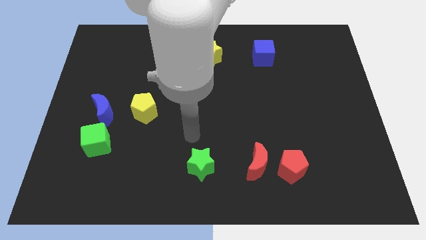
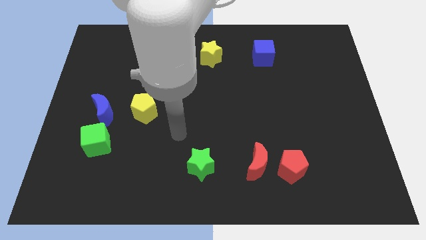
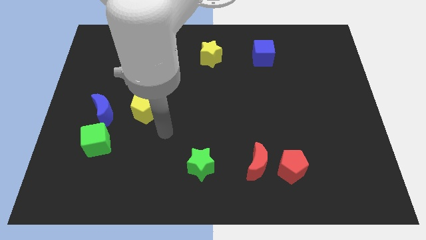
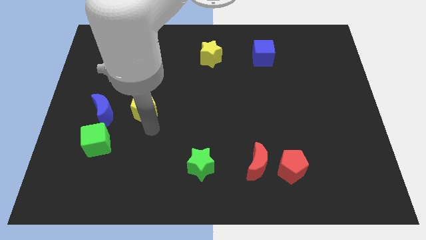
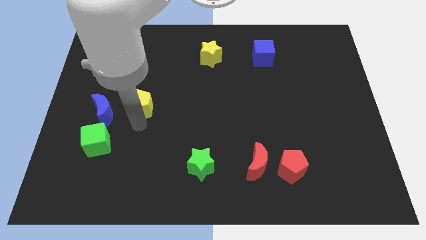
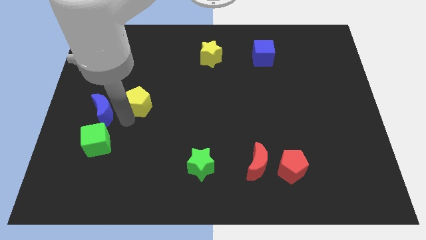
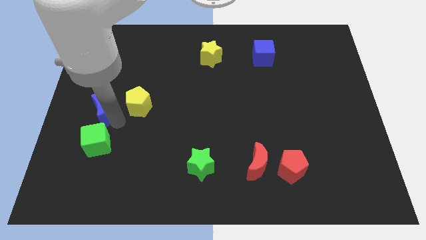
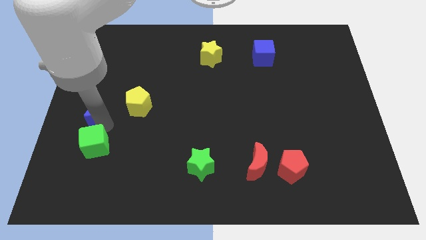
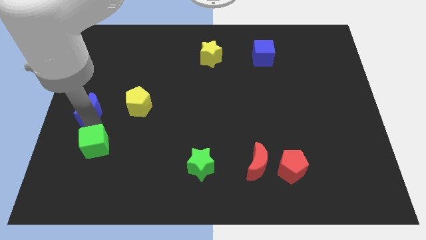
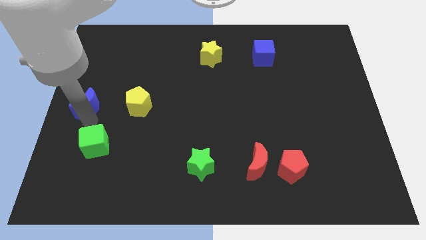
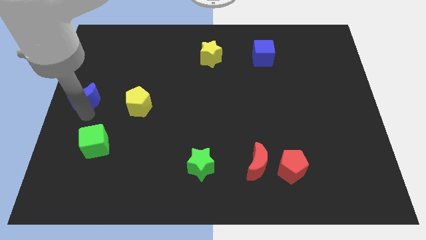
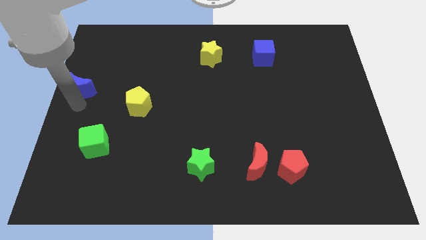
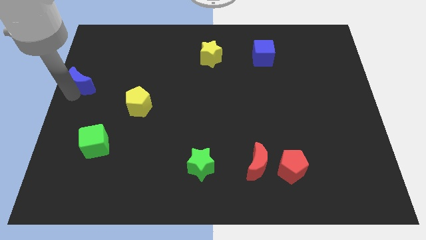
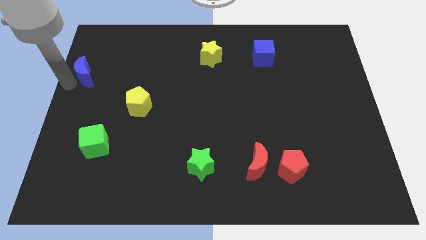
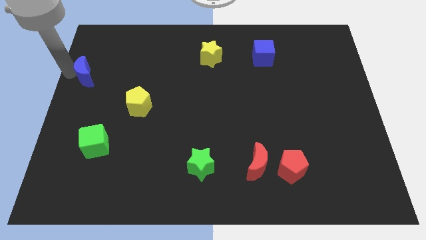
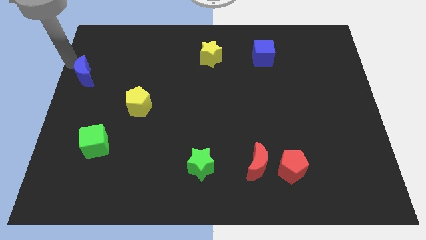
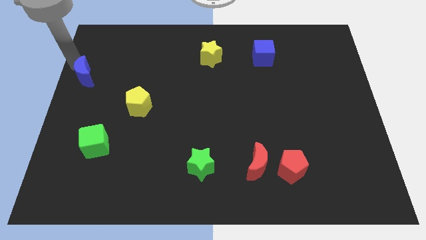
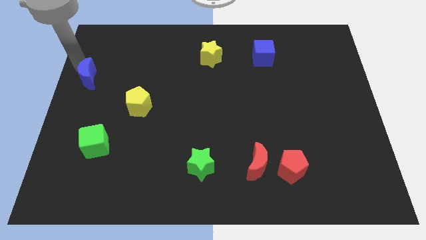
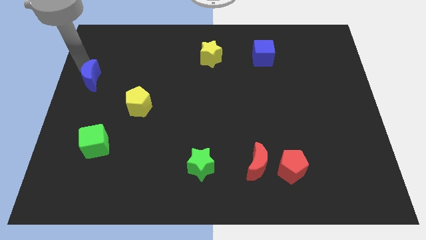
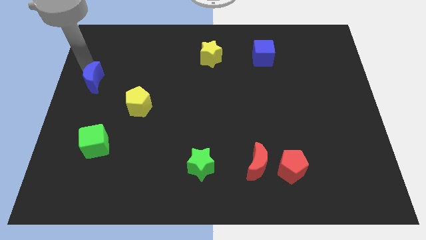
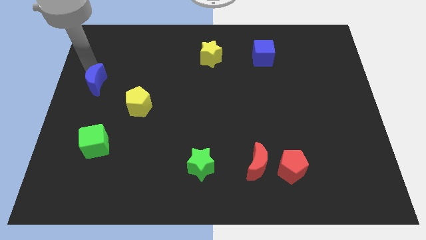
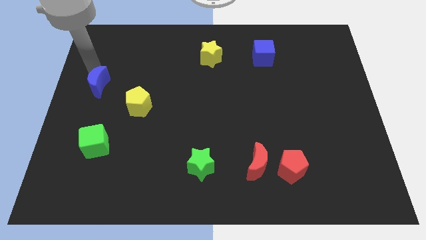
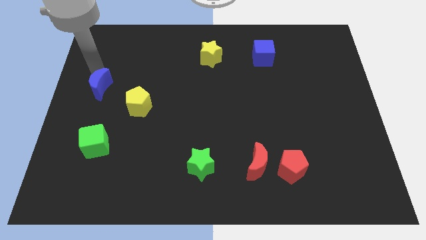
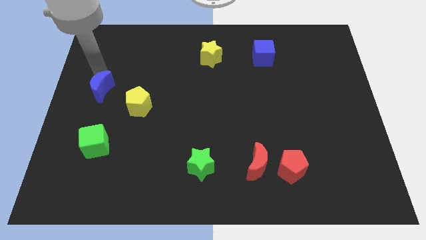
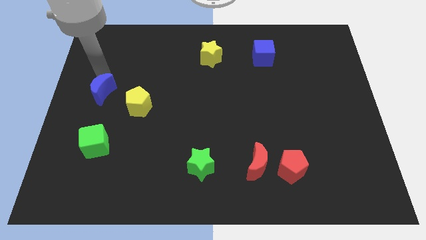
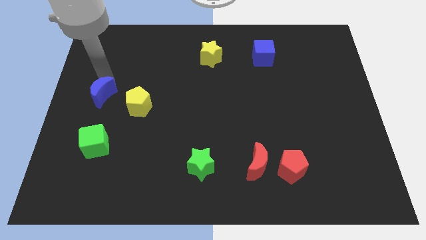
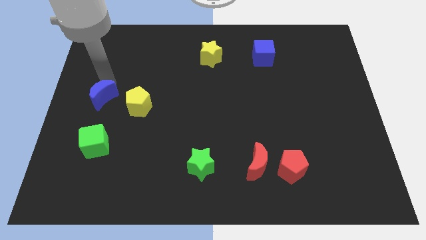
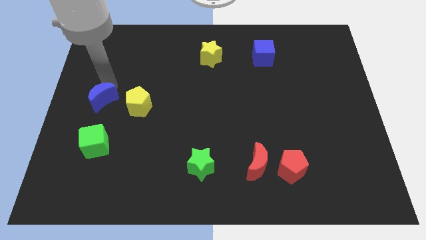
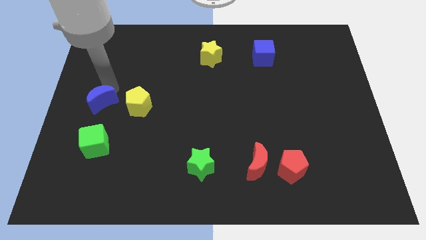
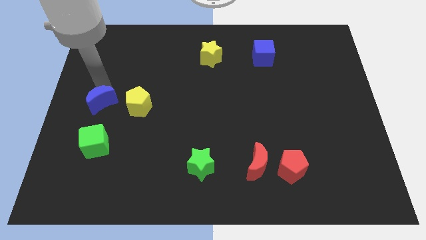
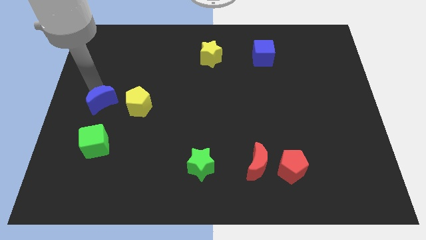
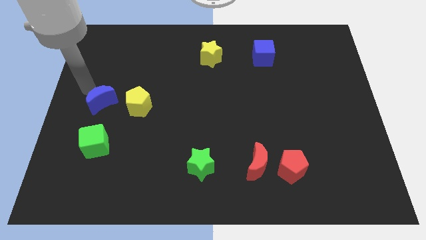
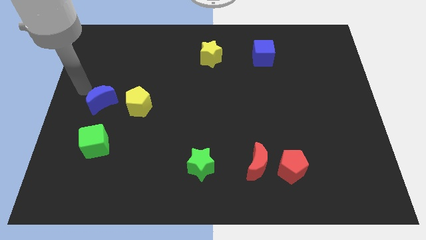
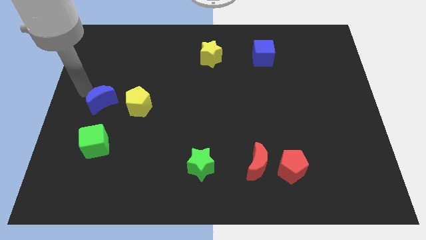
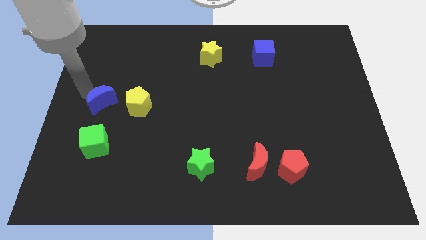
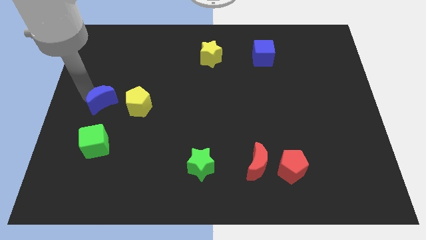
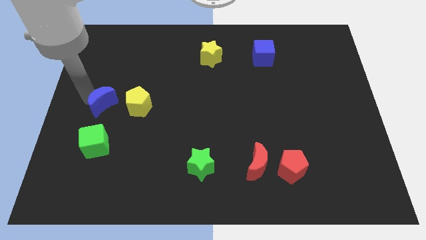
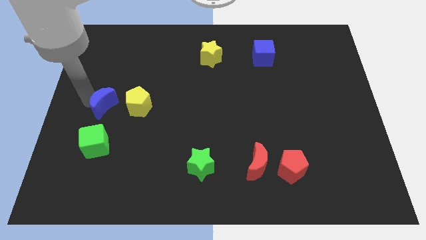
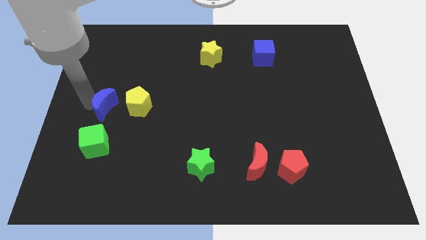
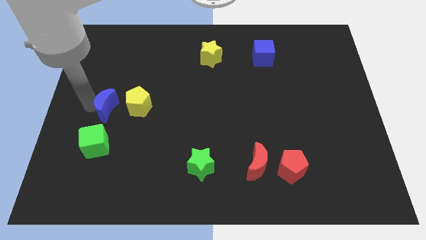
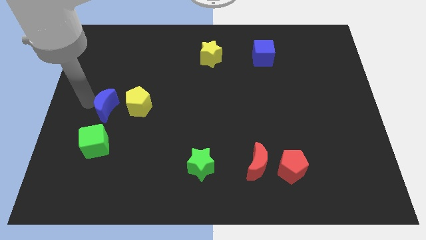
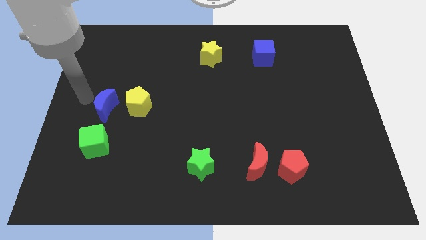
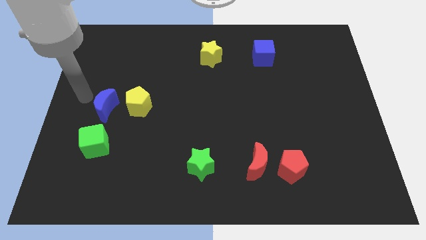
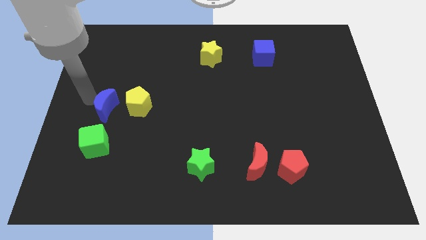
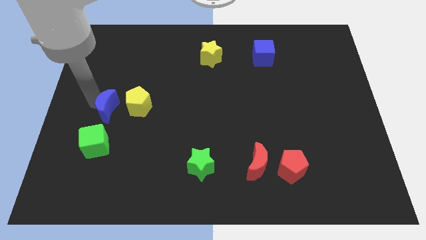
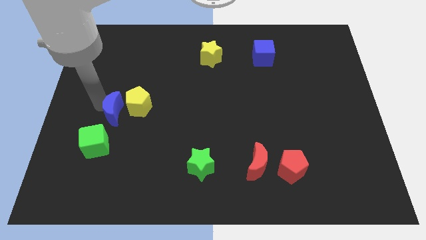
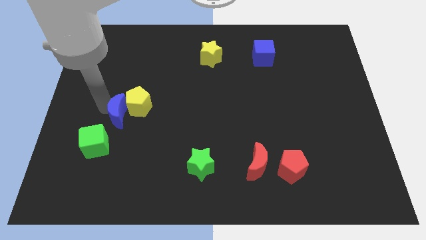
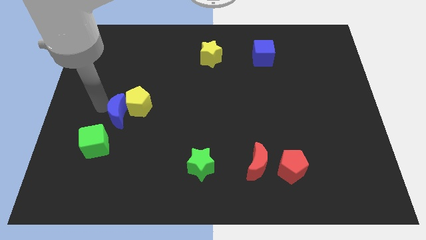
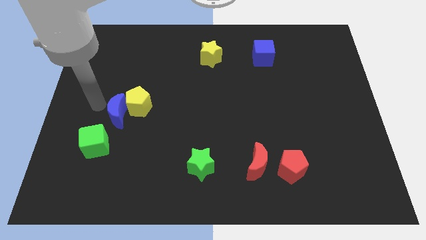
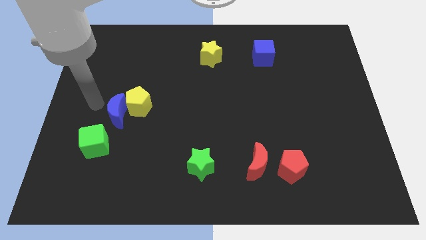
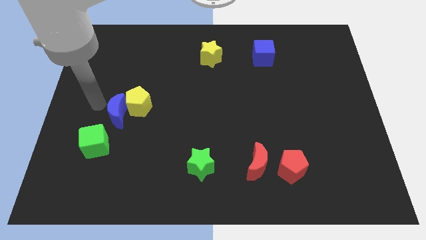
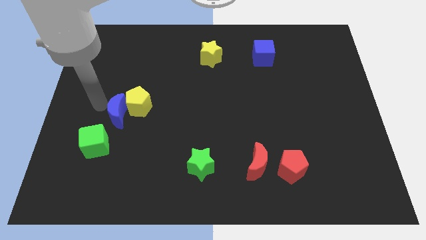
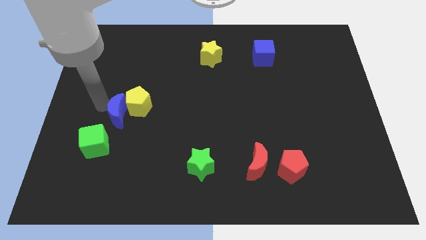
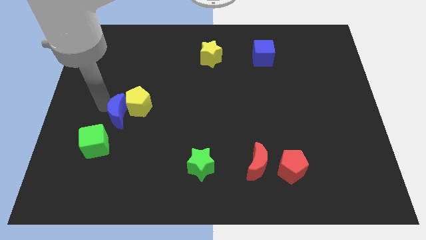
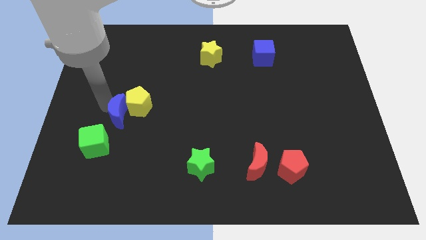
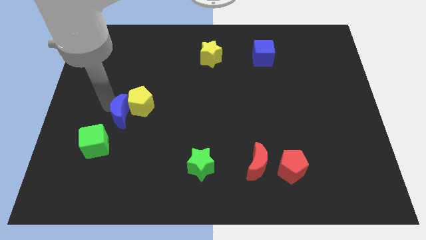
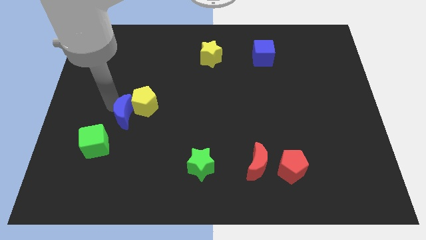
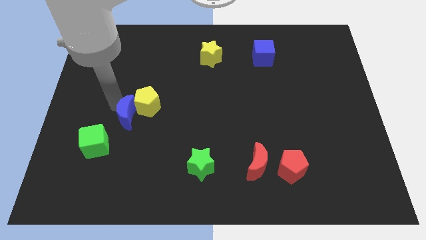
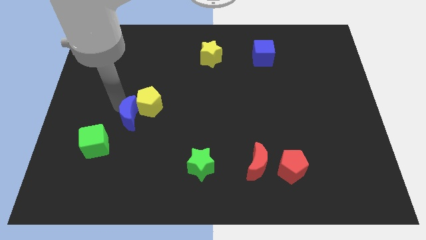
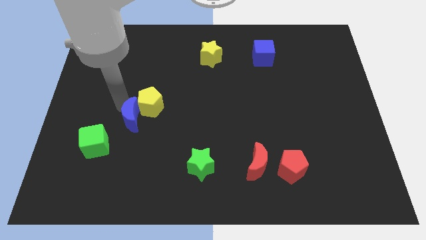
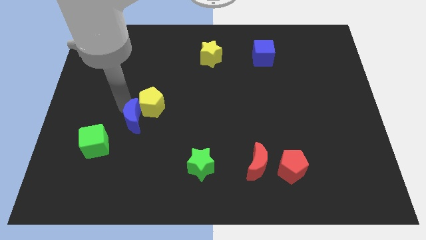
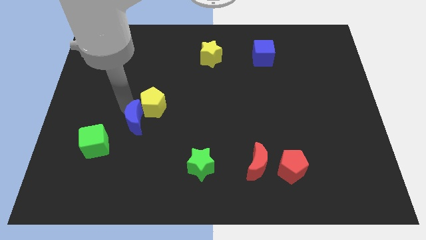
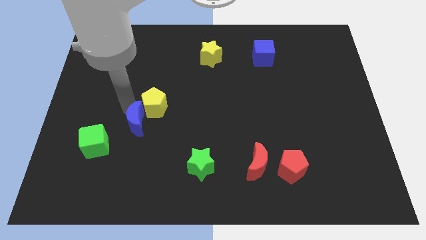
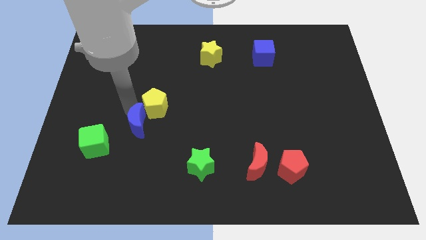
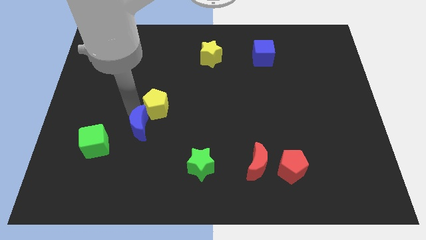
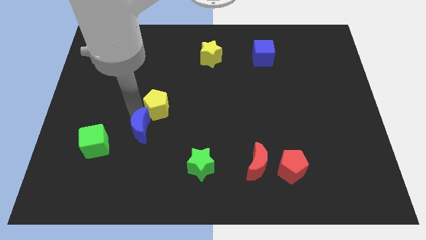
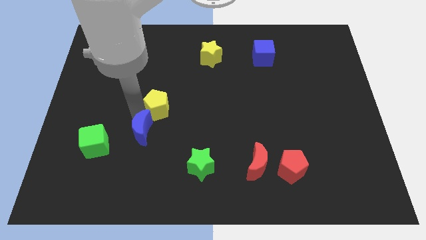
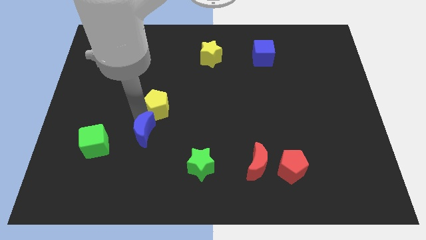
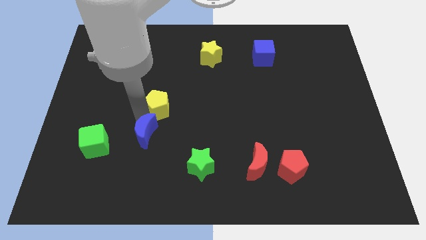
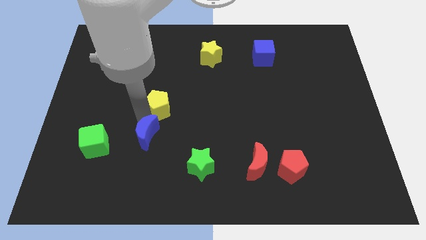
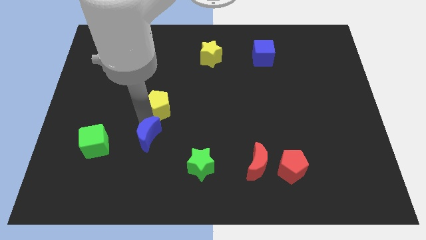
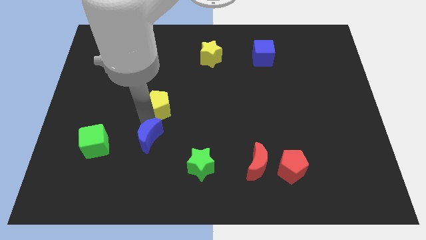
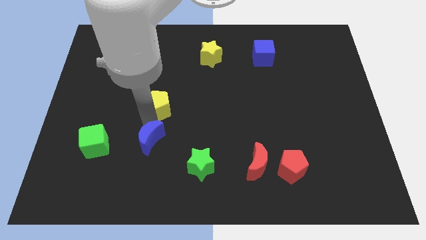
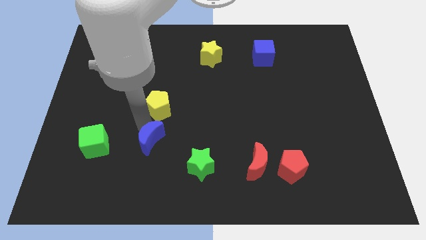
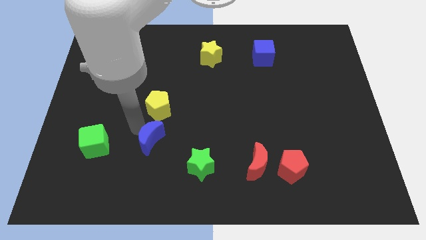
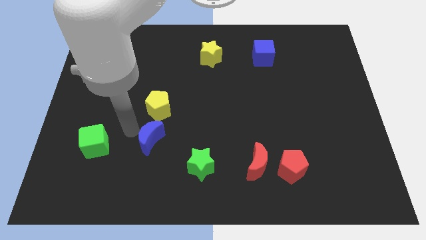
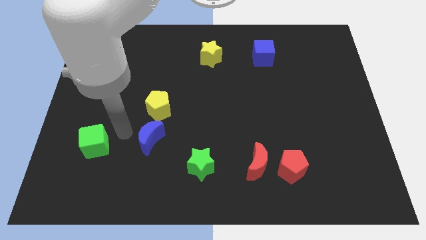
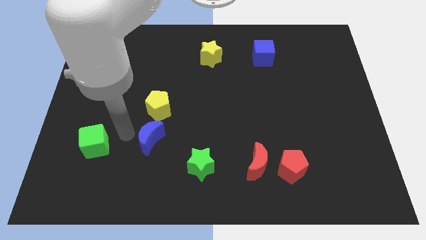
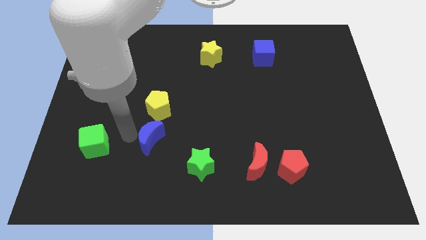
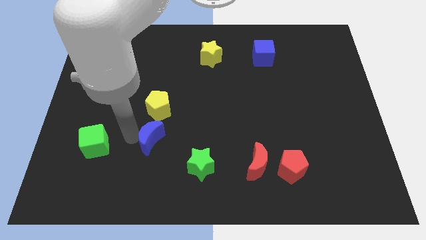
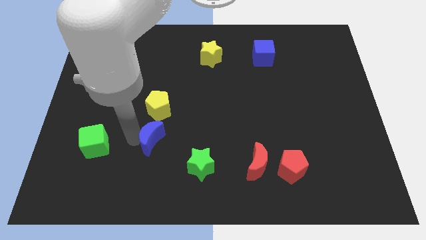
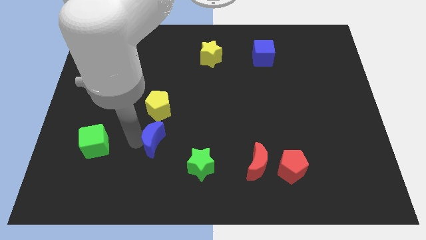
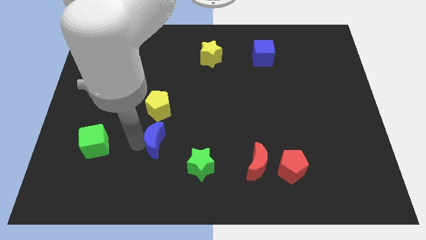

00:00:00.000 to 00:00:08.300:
slide the blue moon to the top left of the green star
